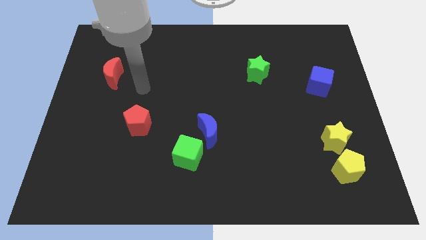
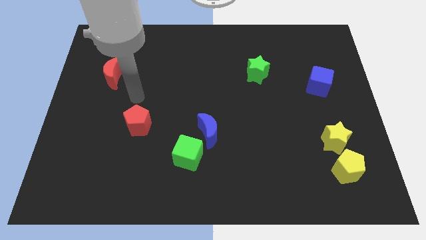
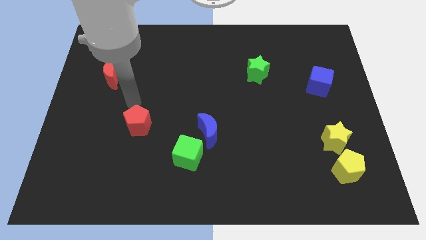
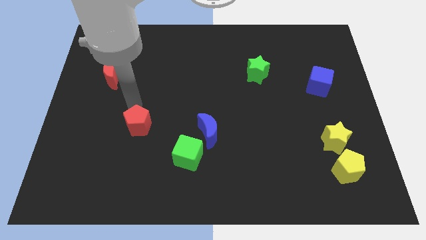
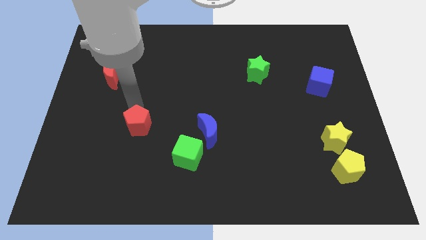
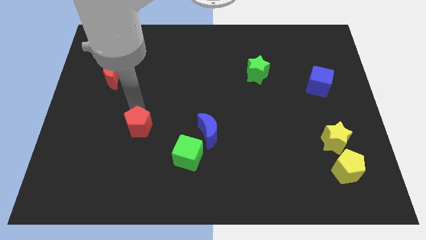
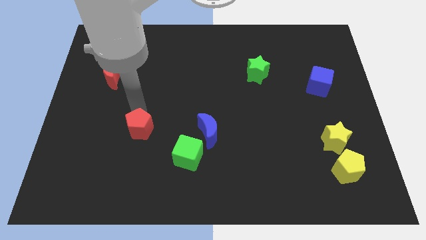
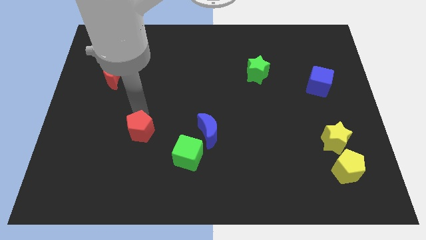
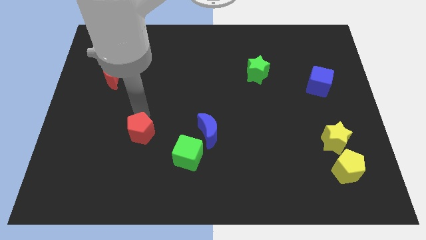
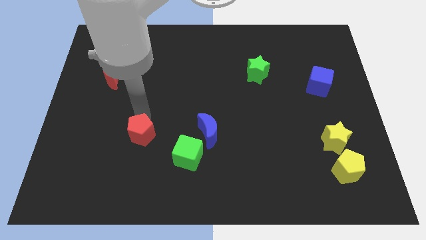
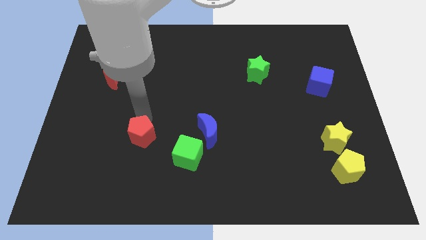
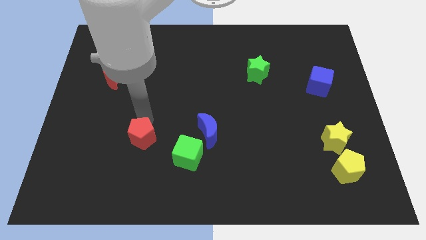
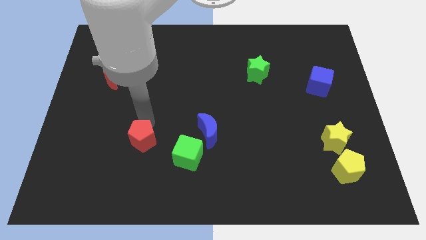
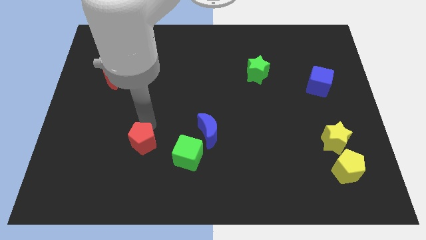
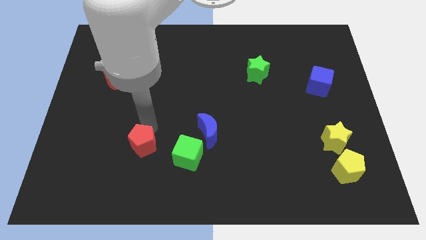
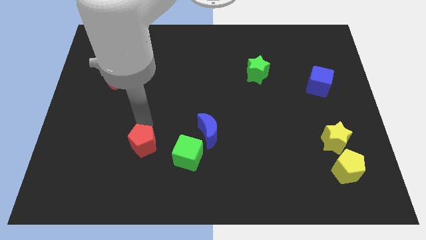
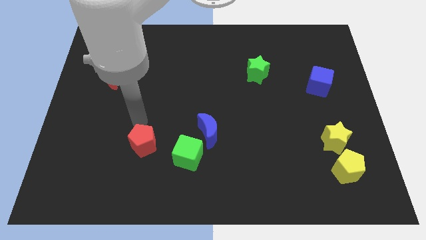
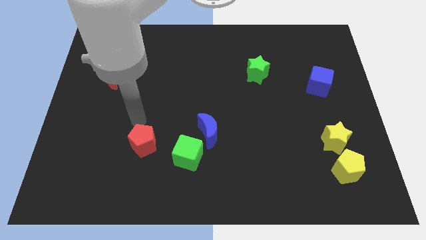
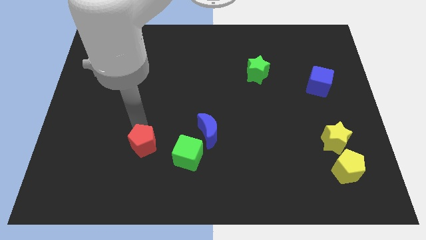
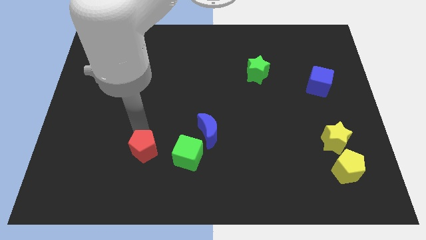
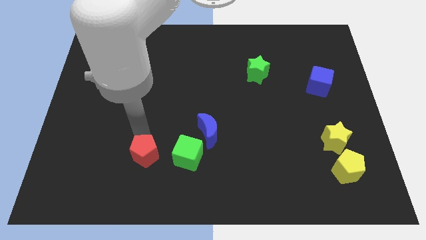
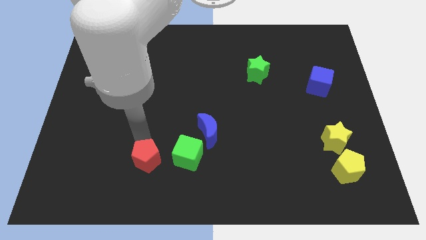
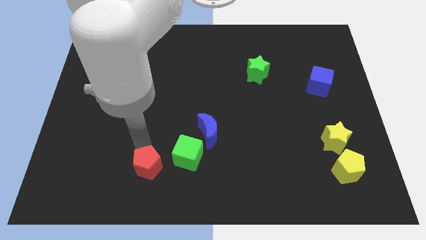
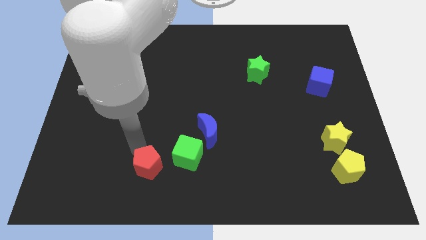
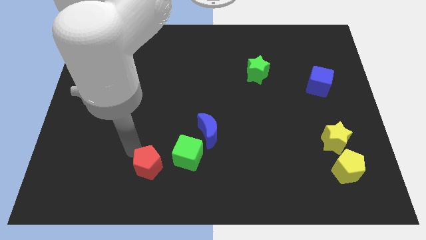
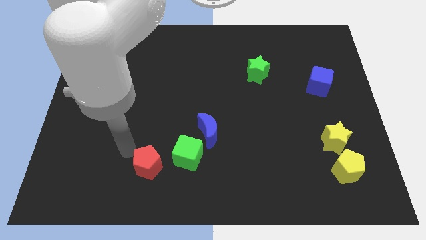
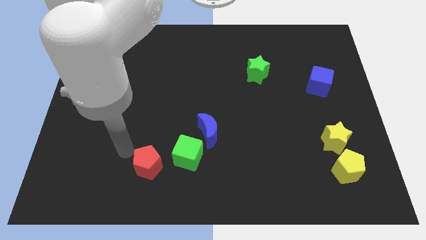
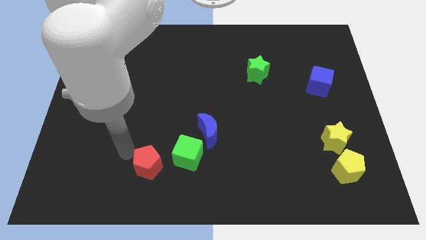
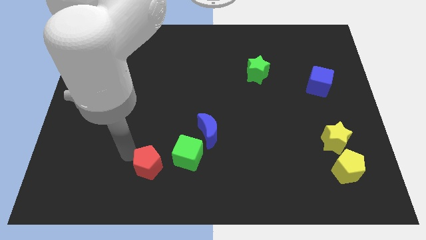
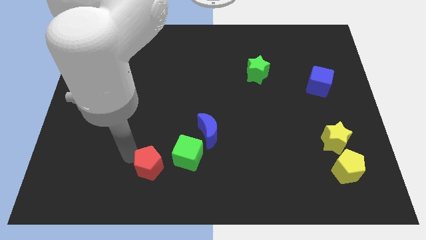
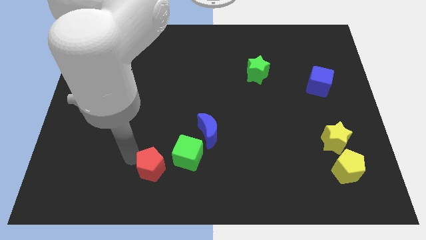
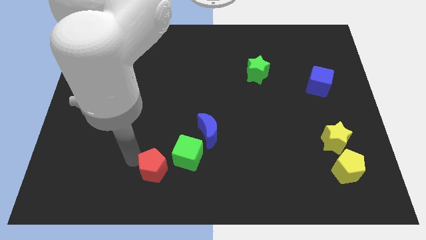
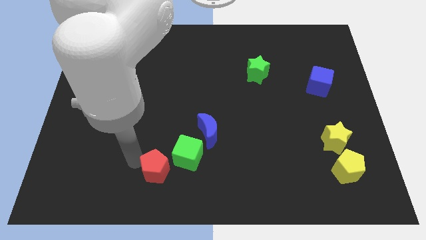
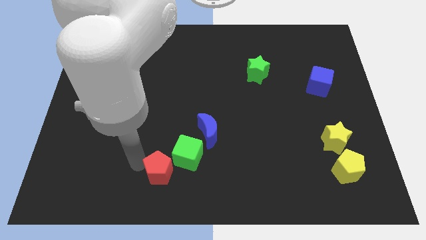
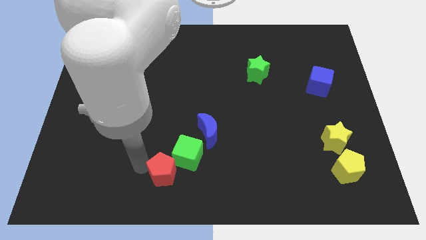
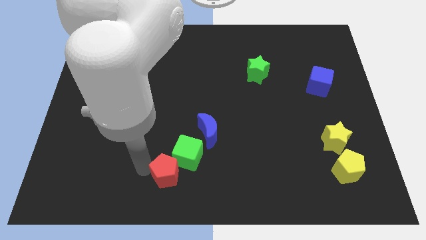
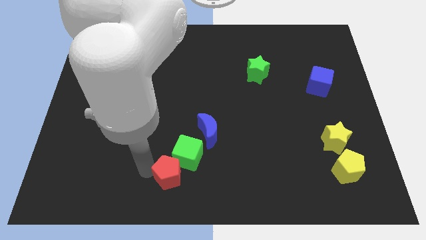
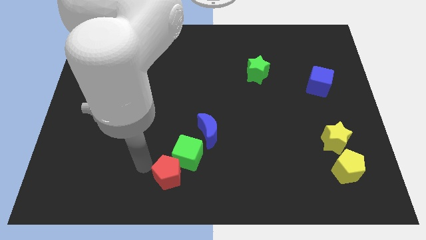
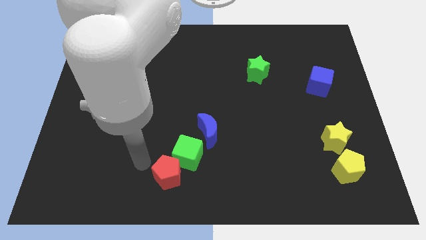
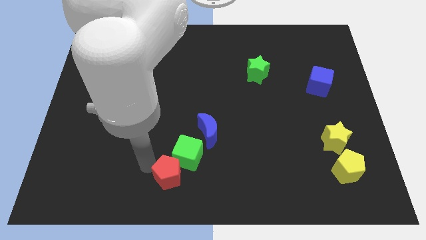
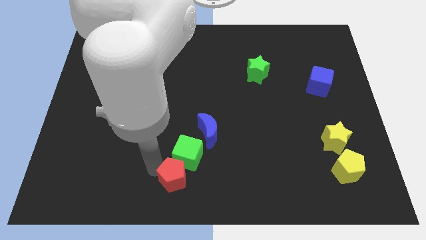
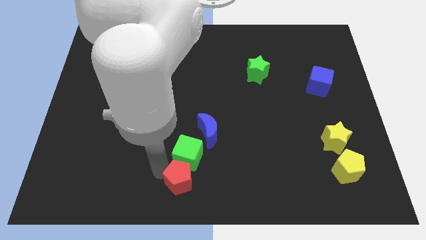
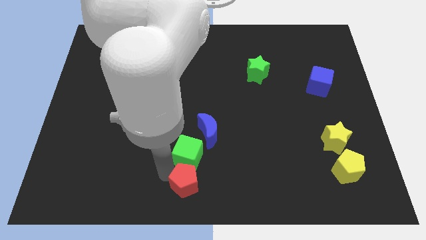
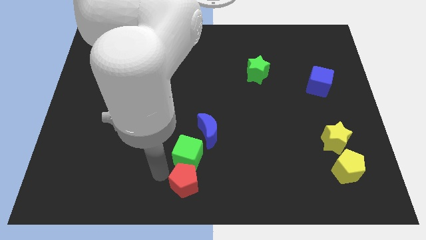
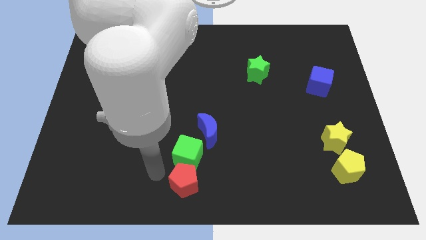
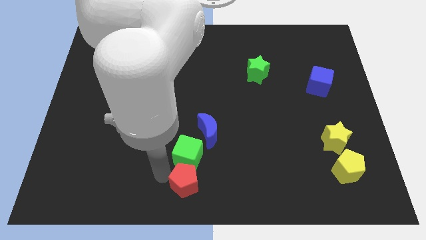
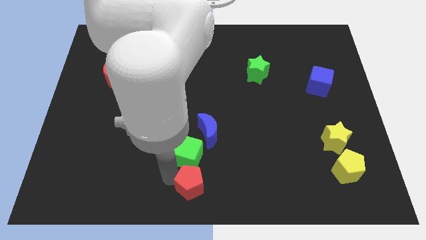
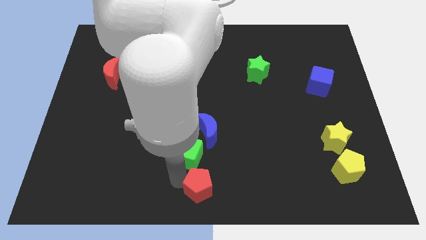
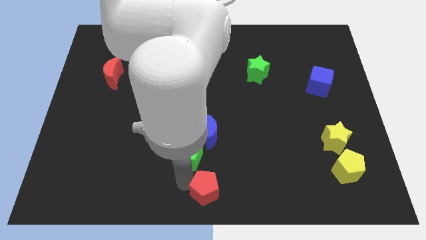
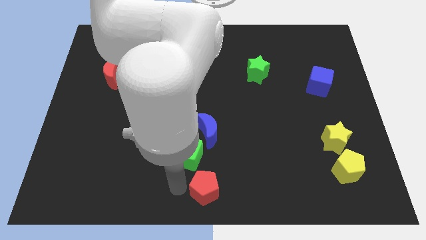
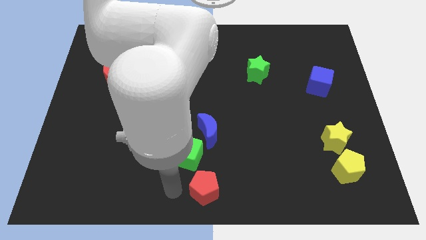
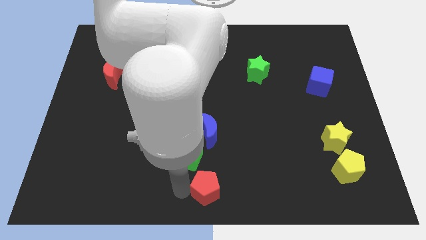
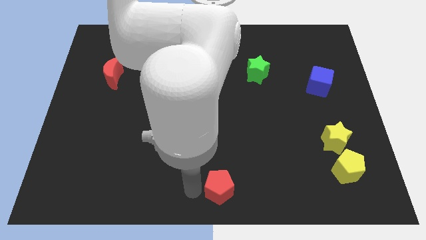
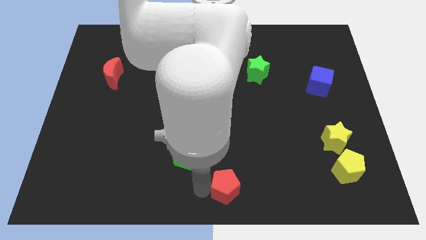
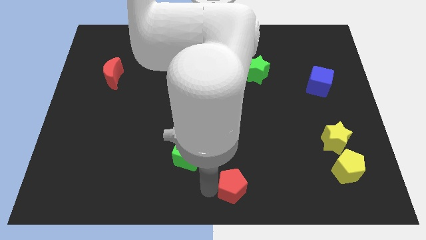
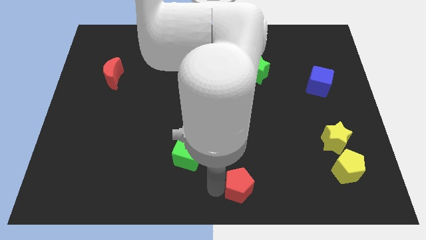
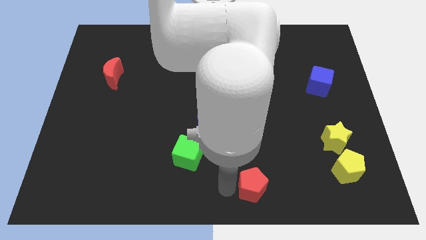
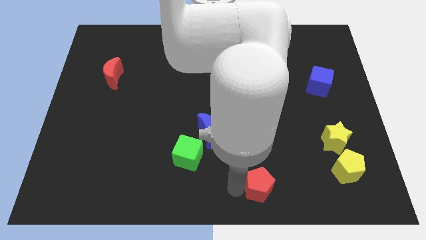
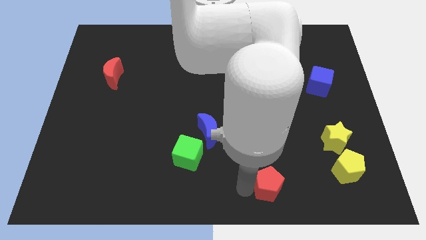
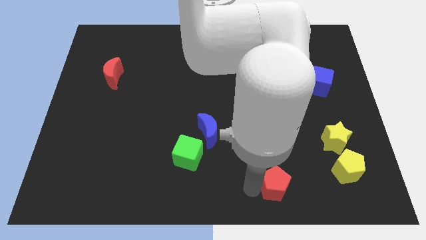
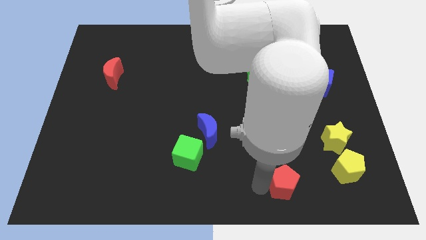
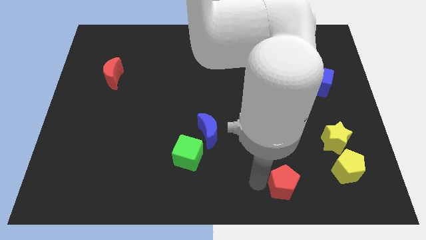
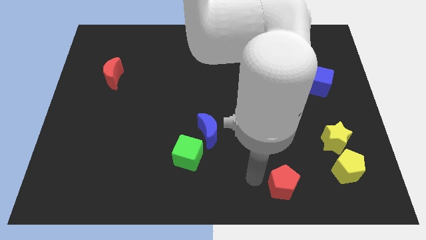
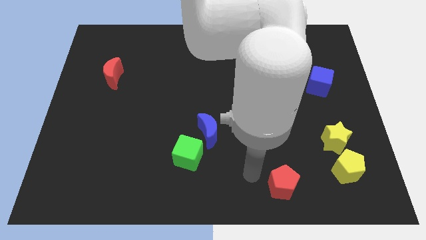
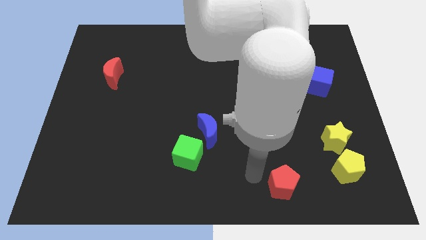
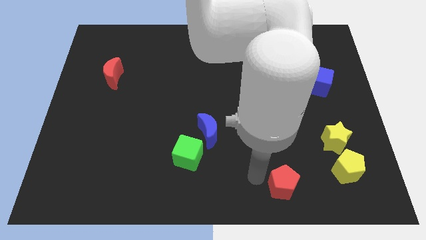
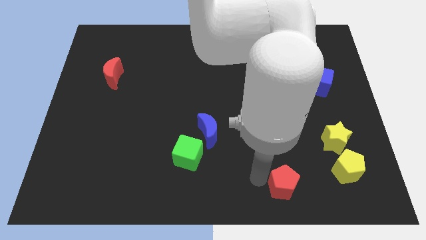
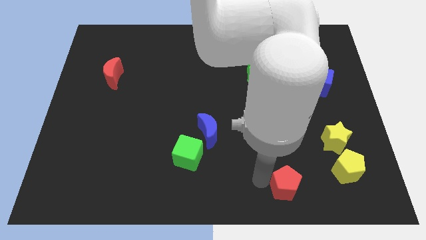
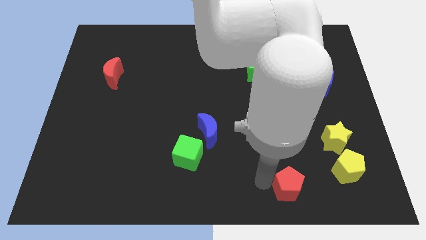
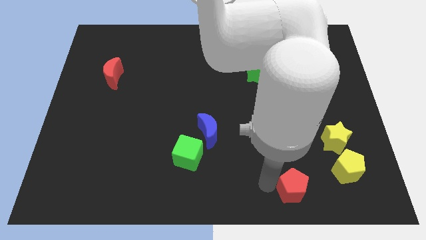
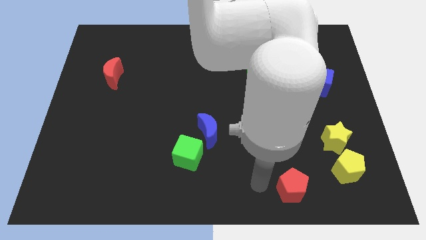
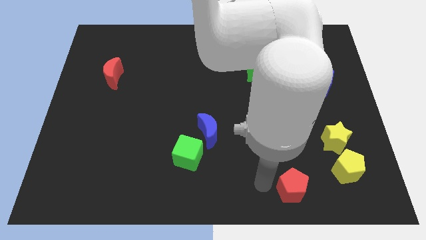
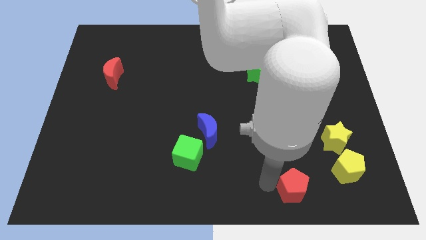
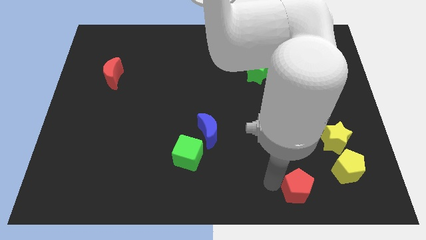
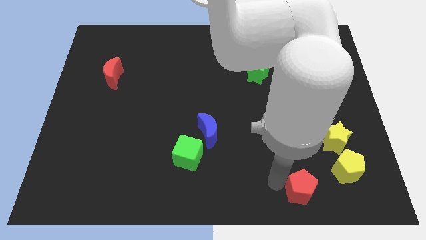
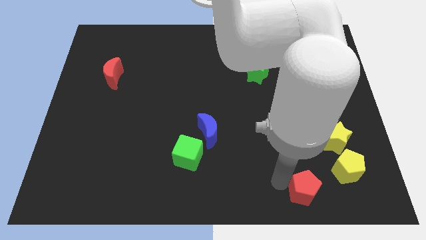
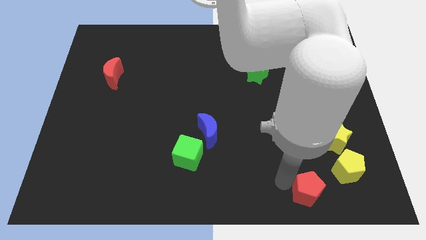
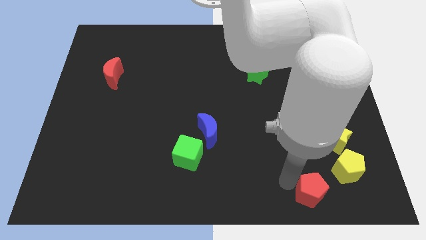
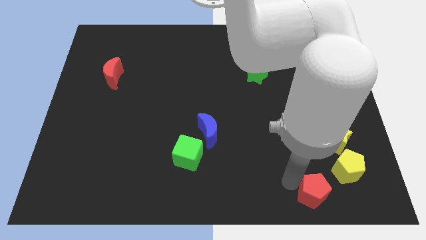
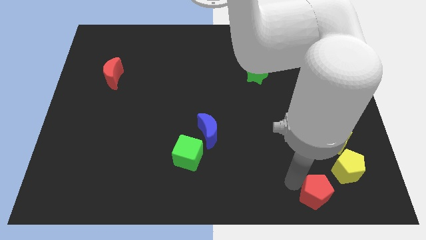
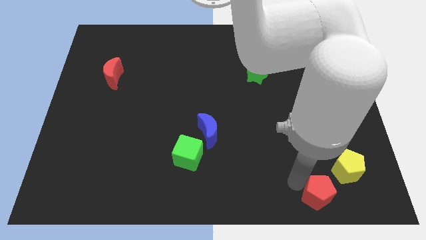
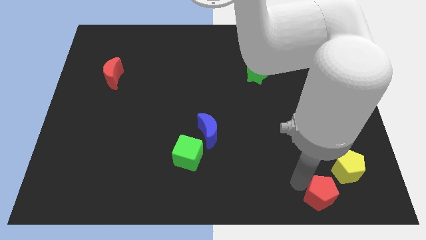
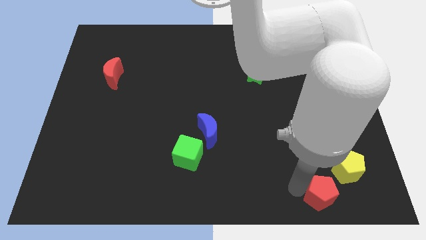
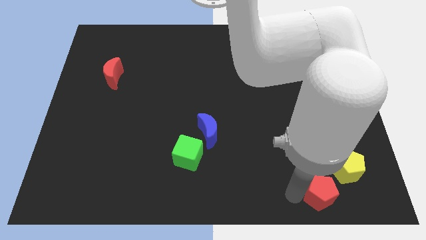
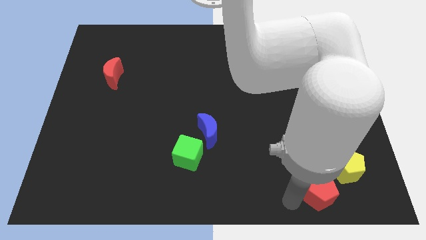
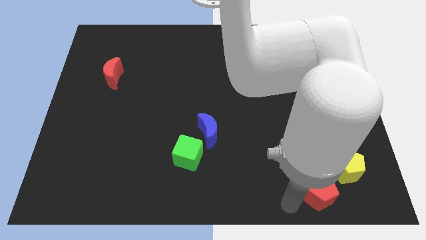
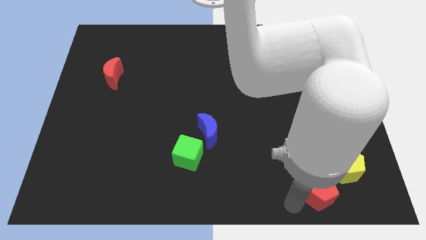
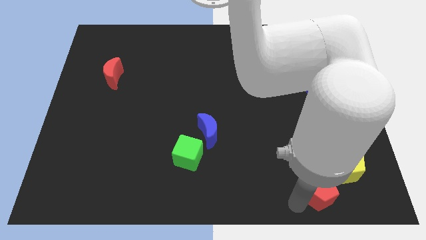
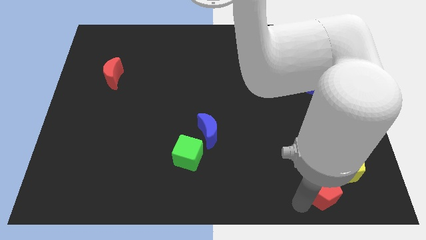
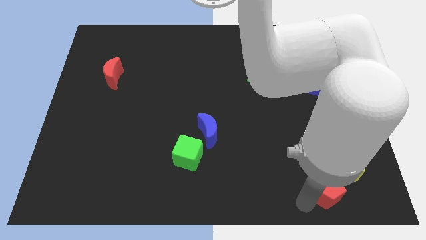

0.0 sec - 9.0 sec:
put the red pentagon to the bottom of the yellow star
